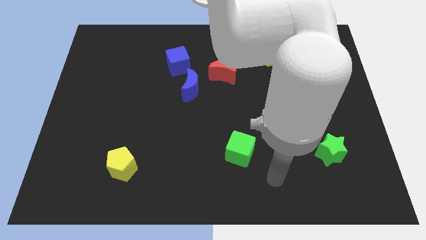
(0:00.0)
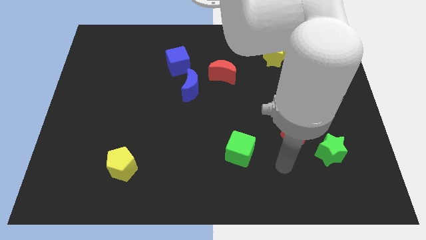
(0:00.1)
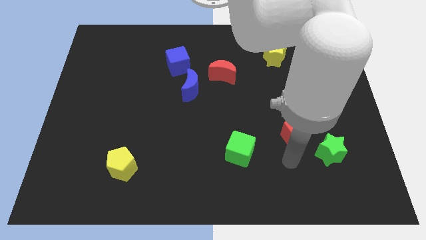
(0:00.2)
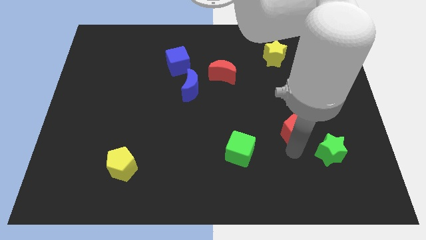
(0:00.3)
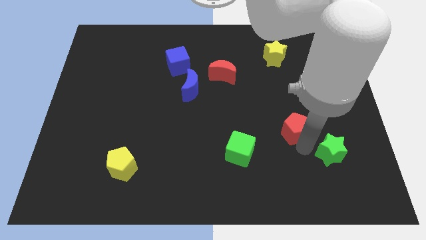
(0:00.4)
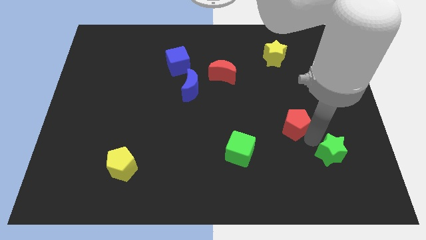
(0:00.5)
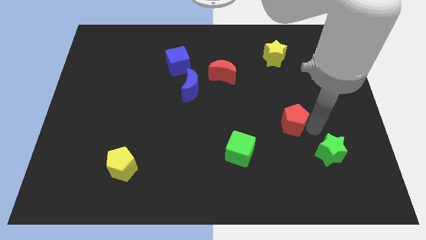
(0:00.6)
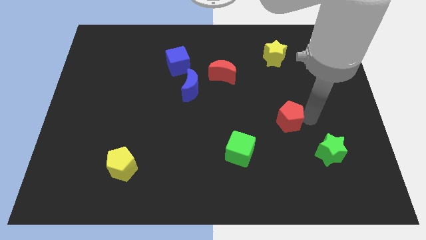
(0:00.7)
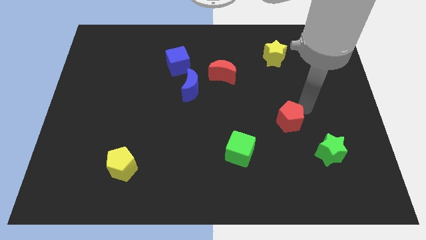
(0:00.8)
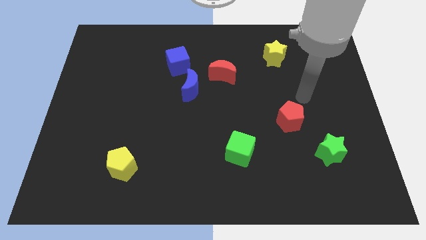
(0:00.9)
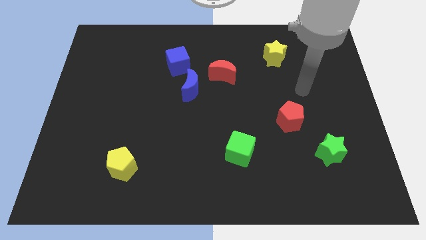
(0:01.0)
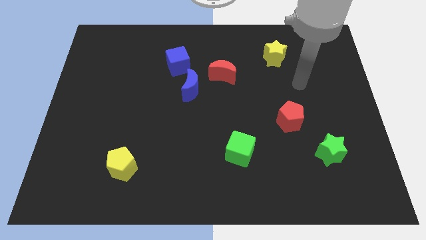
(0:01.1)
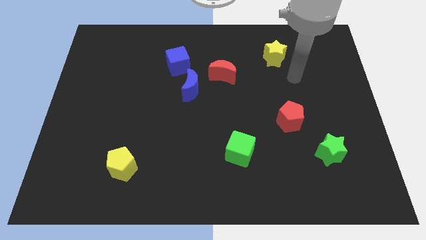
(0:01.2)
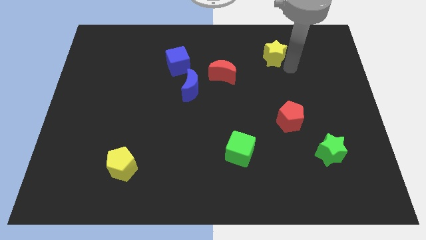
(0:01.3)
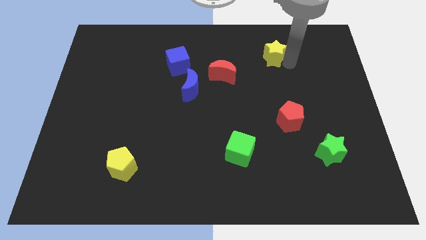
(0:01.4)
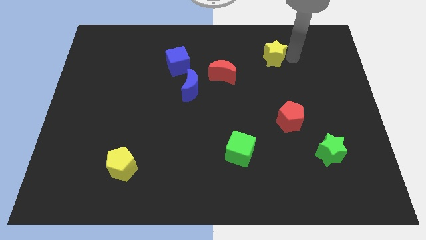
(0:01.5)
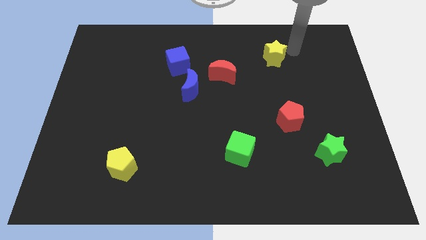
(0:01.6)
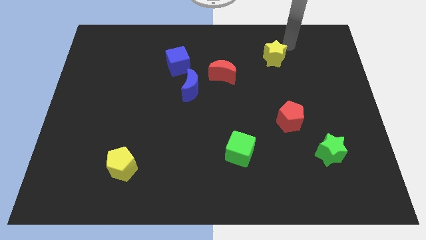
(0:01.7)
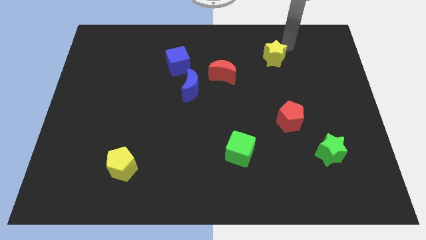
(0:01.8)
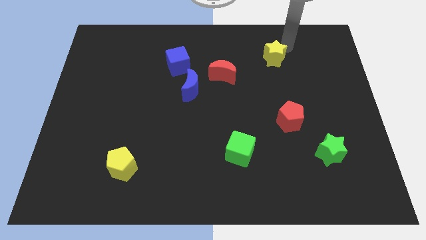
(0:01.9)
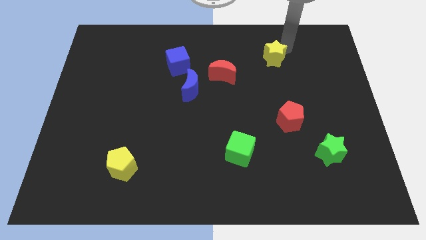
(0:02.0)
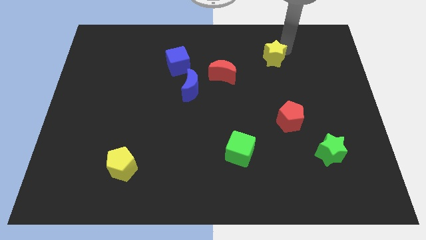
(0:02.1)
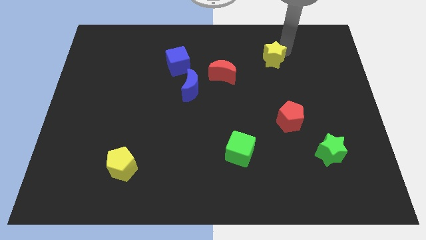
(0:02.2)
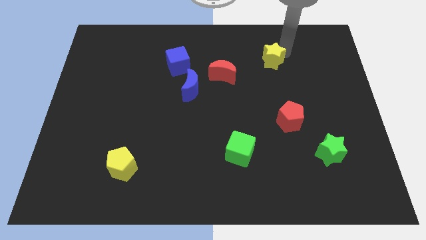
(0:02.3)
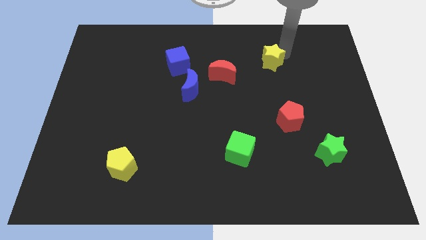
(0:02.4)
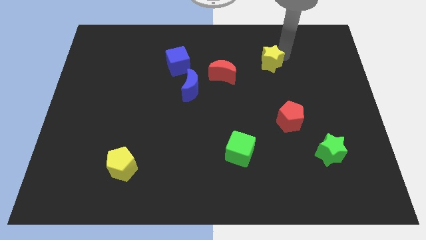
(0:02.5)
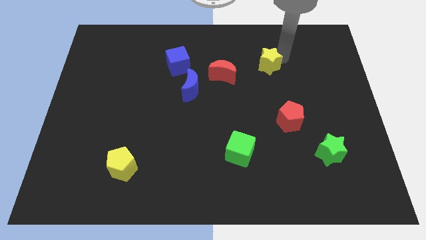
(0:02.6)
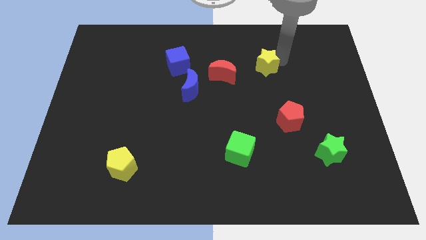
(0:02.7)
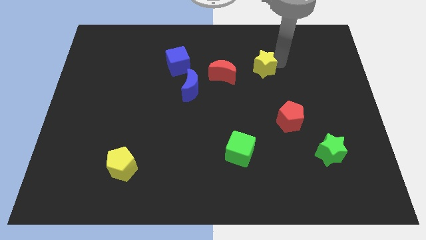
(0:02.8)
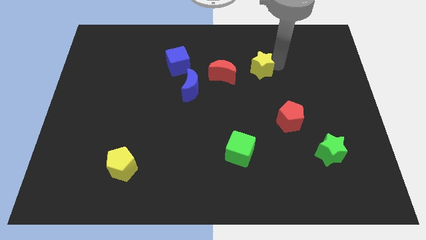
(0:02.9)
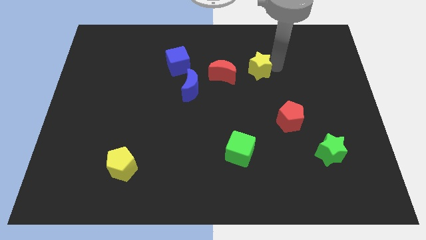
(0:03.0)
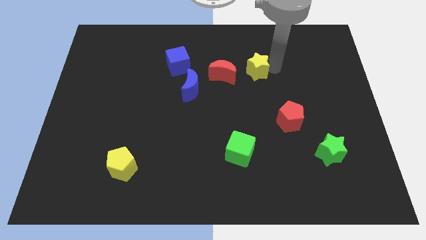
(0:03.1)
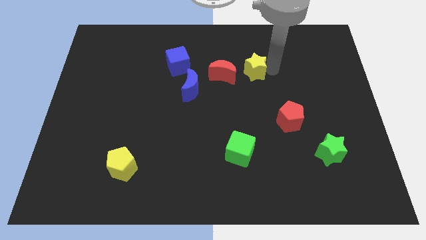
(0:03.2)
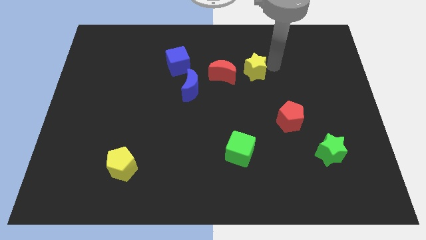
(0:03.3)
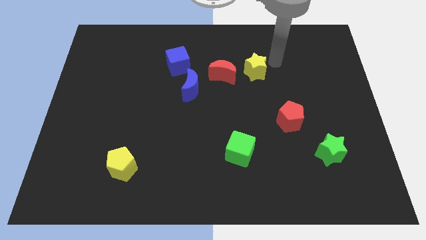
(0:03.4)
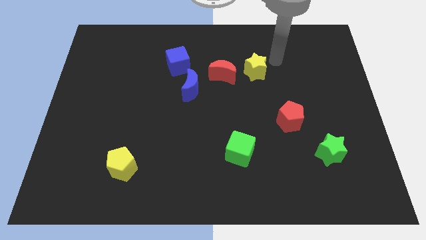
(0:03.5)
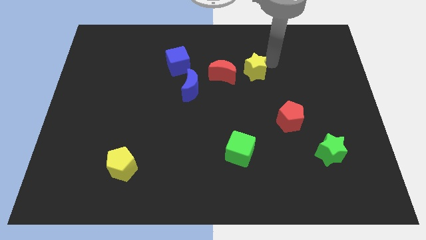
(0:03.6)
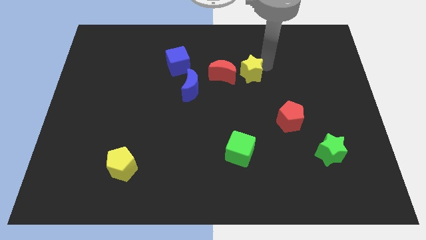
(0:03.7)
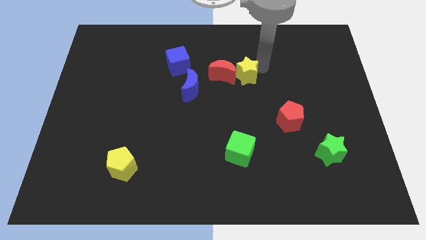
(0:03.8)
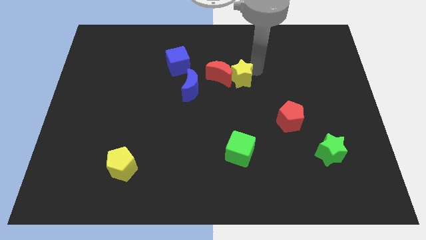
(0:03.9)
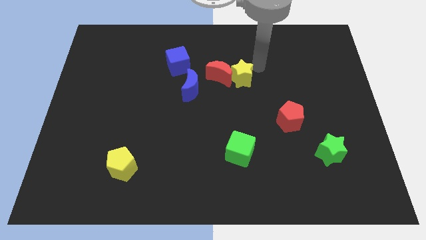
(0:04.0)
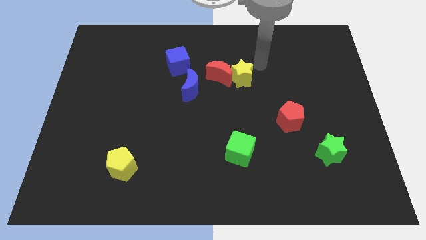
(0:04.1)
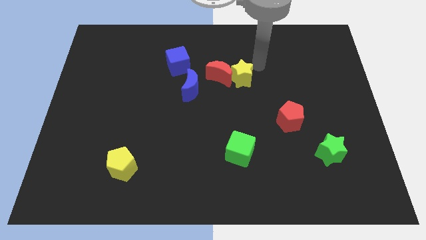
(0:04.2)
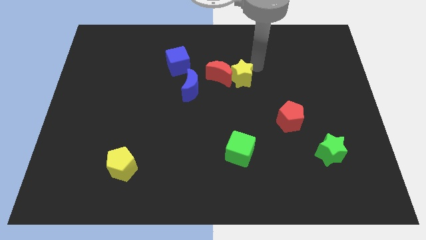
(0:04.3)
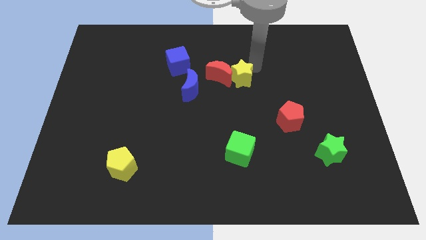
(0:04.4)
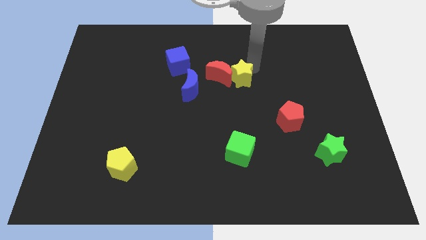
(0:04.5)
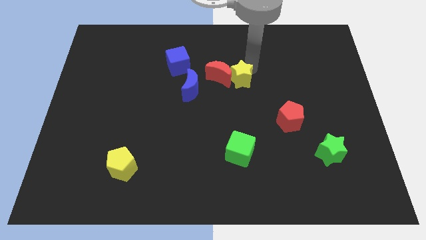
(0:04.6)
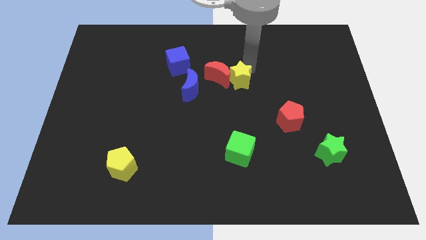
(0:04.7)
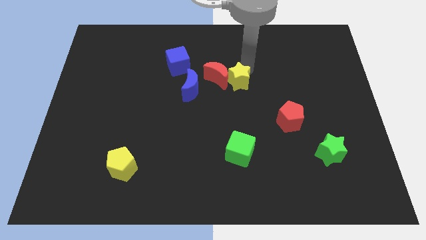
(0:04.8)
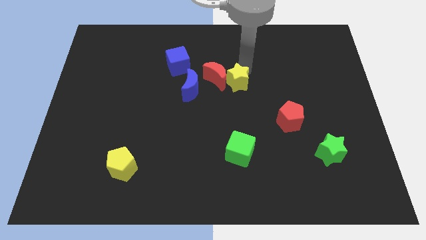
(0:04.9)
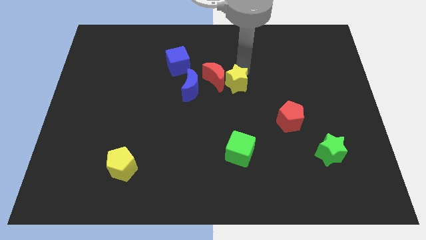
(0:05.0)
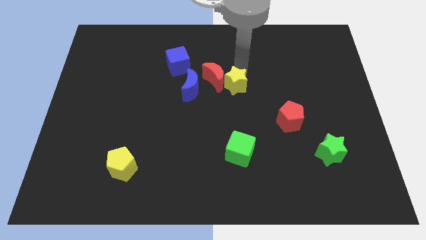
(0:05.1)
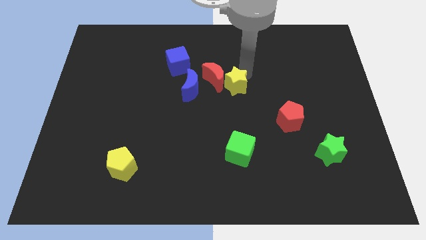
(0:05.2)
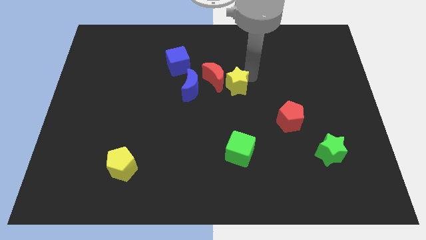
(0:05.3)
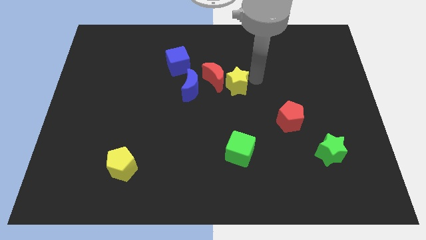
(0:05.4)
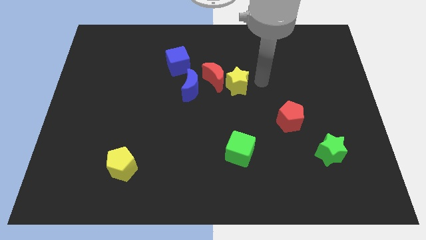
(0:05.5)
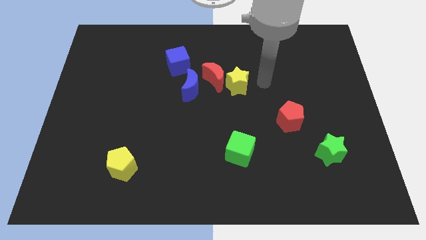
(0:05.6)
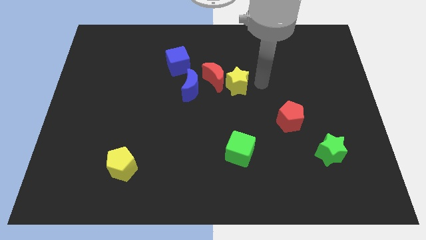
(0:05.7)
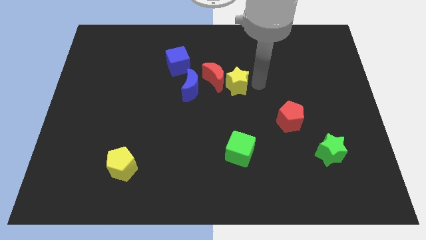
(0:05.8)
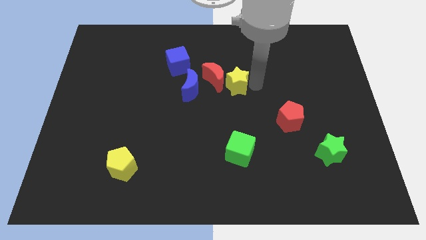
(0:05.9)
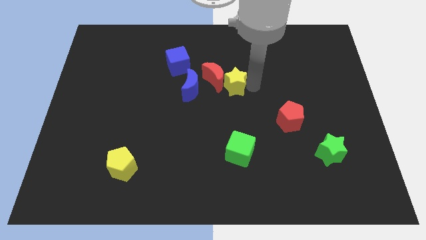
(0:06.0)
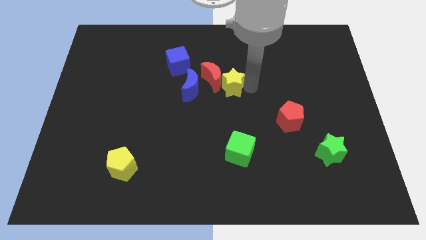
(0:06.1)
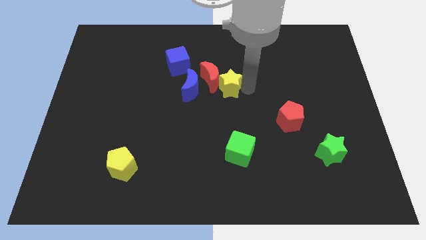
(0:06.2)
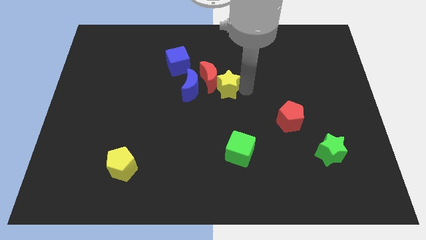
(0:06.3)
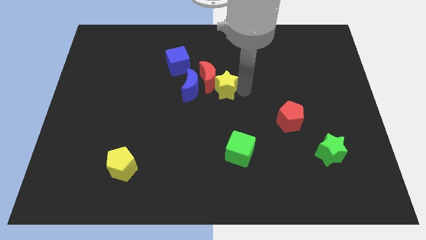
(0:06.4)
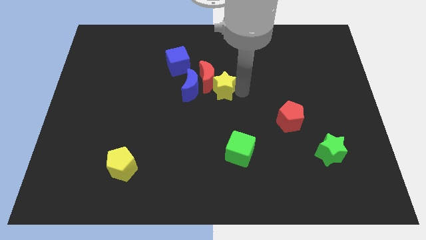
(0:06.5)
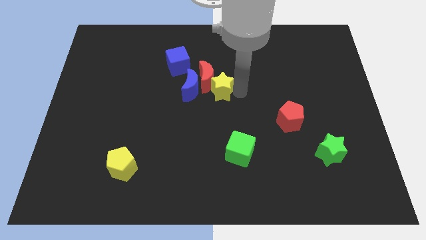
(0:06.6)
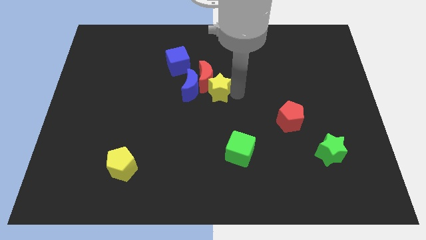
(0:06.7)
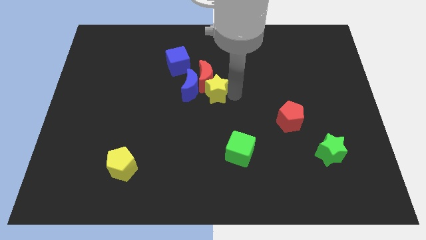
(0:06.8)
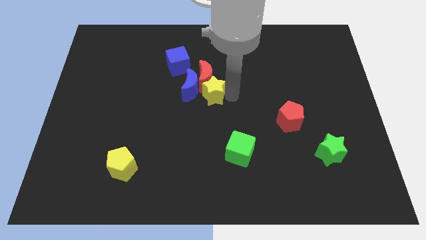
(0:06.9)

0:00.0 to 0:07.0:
push the yellow star to the blue moon
